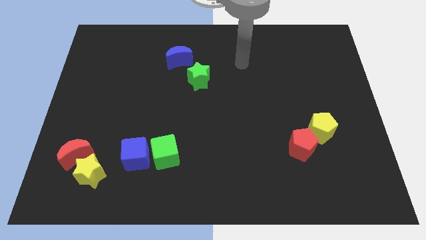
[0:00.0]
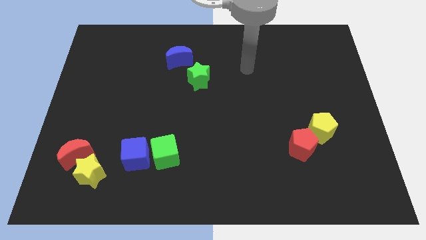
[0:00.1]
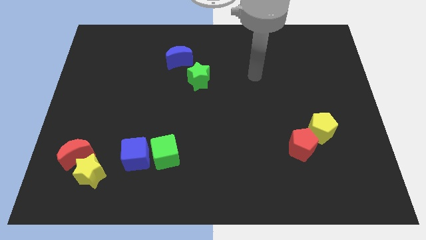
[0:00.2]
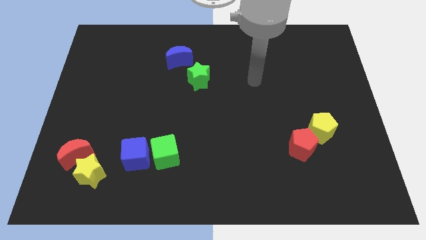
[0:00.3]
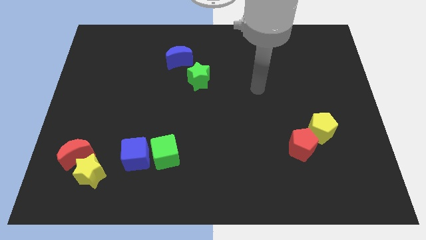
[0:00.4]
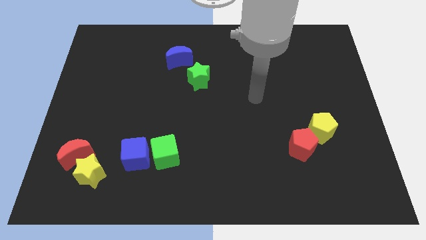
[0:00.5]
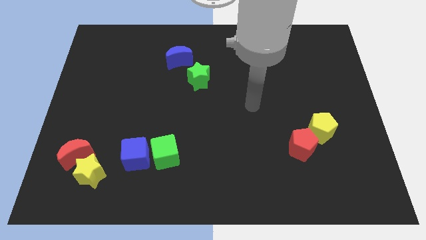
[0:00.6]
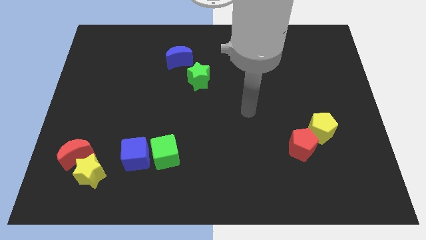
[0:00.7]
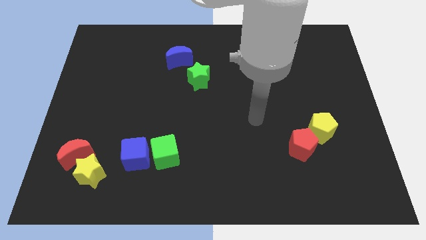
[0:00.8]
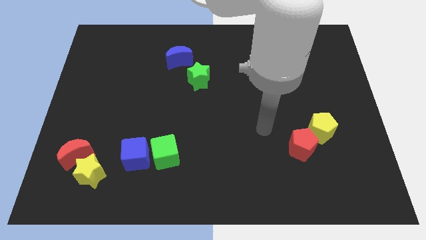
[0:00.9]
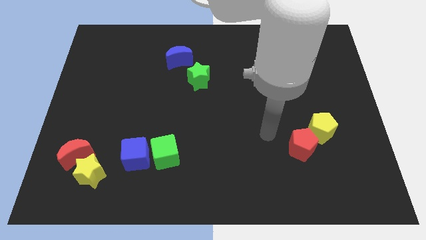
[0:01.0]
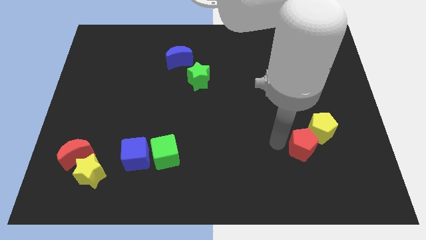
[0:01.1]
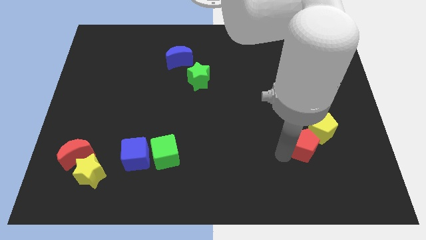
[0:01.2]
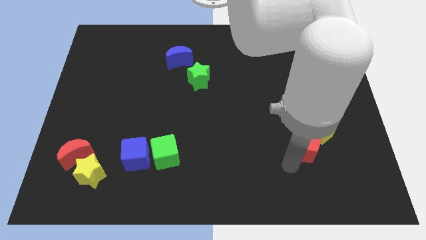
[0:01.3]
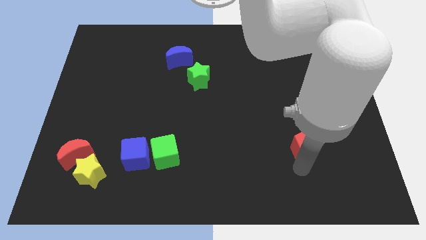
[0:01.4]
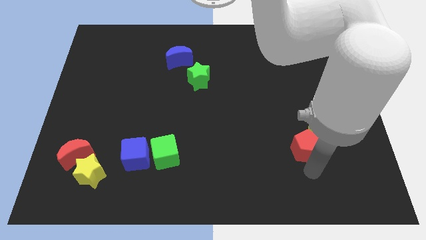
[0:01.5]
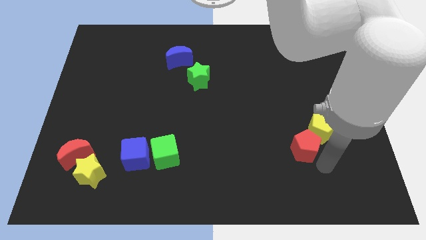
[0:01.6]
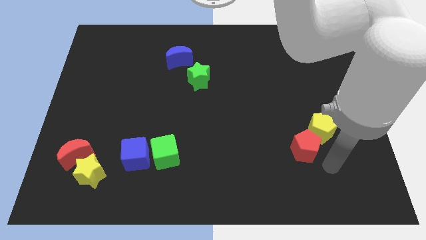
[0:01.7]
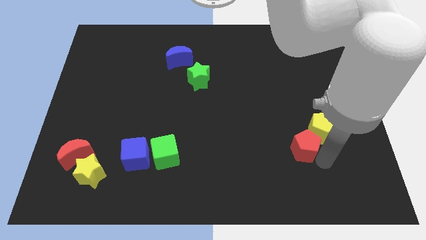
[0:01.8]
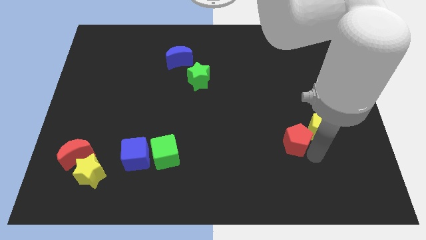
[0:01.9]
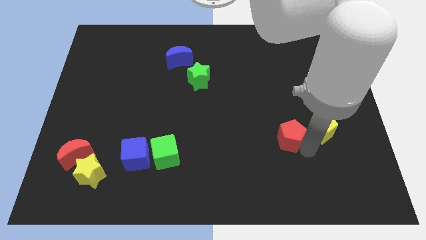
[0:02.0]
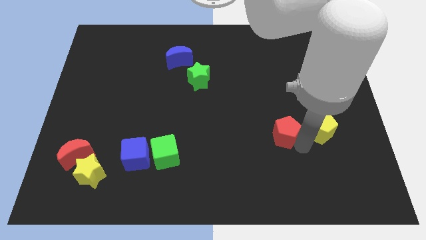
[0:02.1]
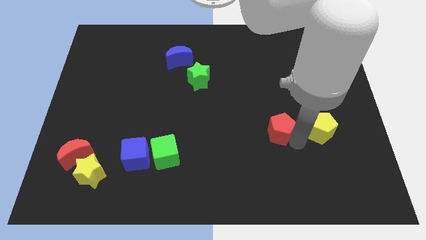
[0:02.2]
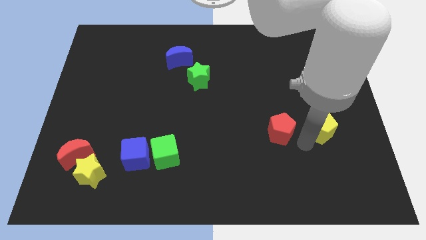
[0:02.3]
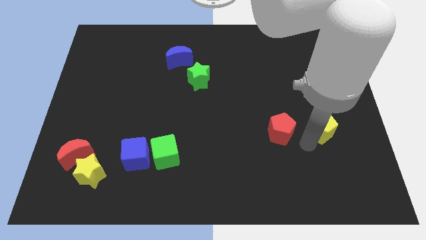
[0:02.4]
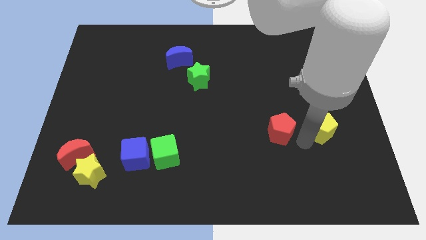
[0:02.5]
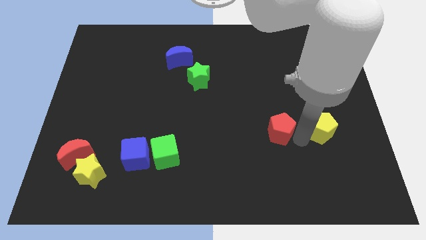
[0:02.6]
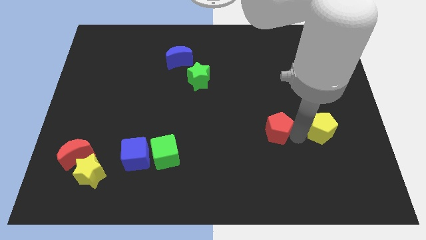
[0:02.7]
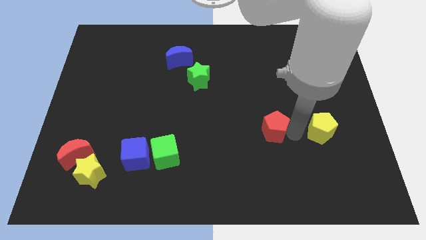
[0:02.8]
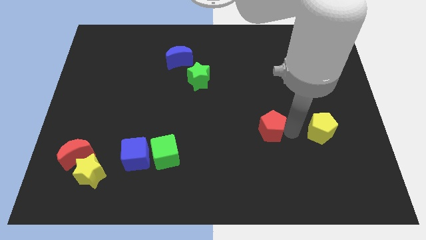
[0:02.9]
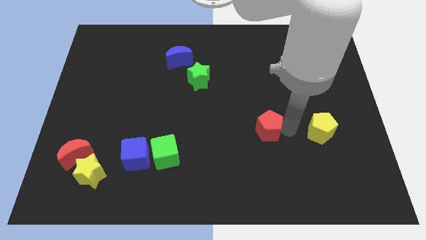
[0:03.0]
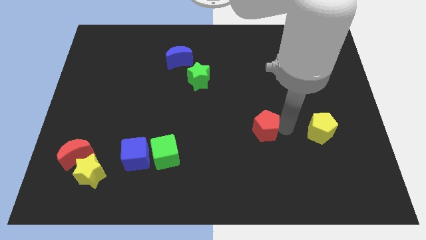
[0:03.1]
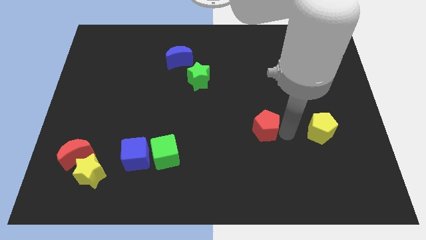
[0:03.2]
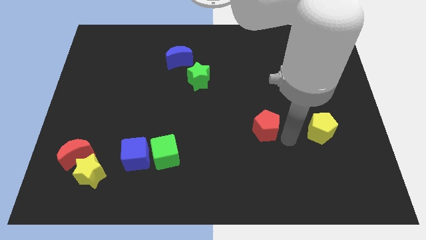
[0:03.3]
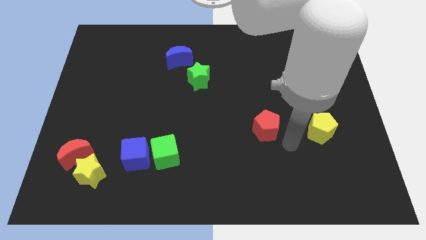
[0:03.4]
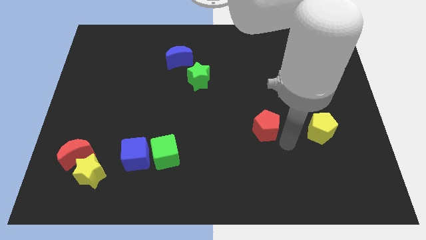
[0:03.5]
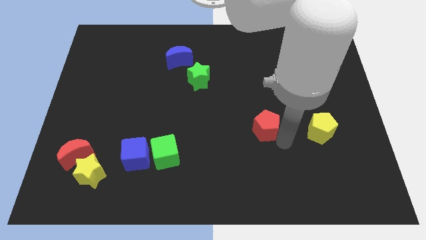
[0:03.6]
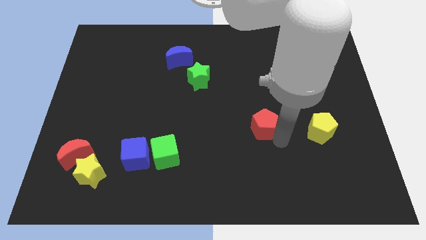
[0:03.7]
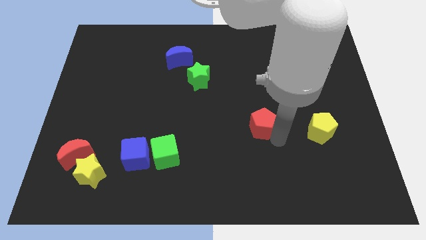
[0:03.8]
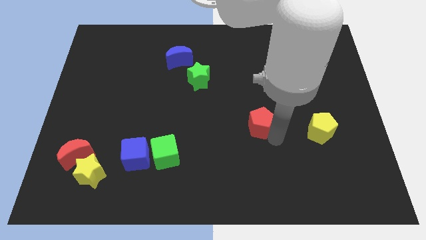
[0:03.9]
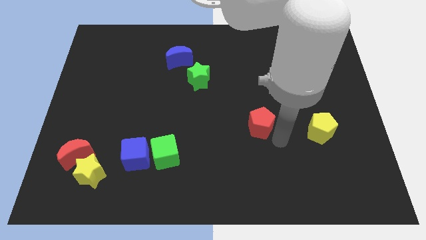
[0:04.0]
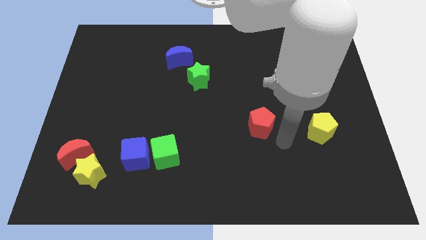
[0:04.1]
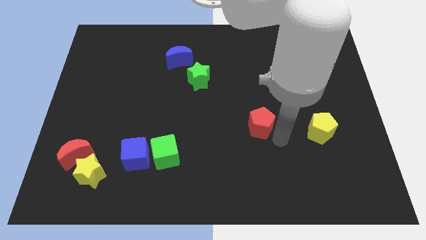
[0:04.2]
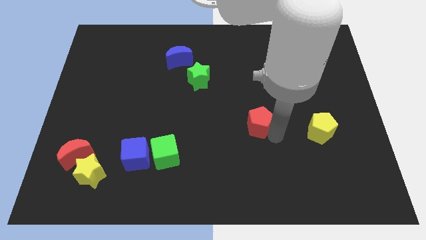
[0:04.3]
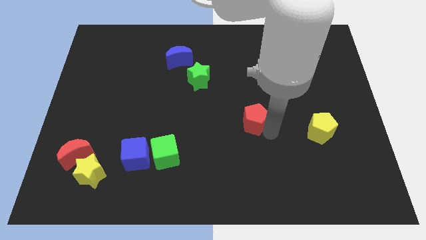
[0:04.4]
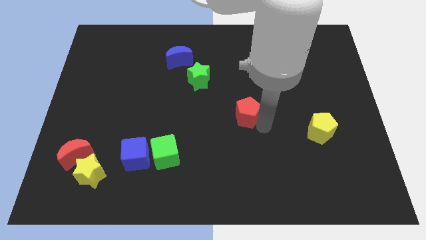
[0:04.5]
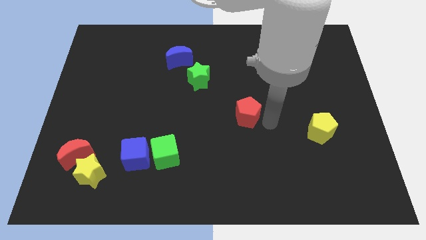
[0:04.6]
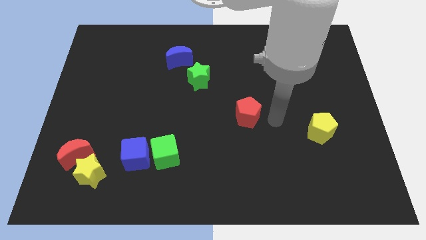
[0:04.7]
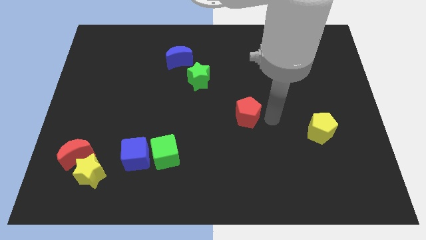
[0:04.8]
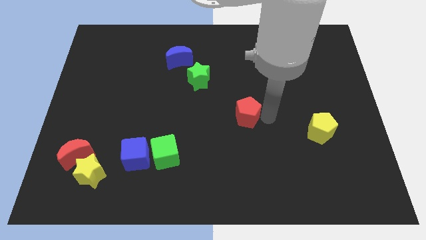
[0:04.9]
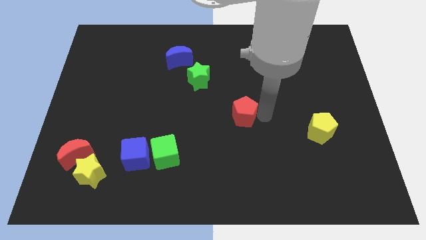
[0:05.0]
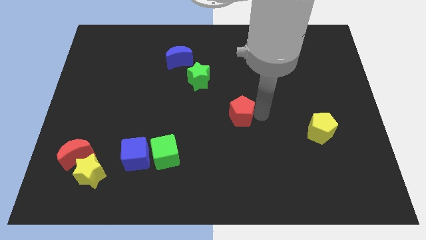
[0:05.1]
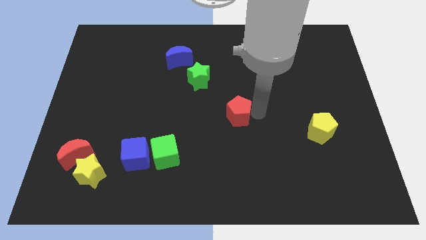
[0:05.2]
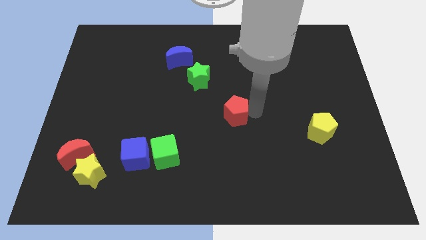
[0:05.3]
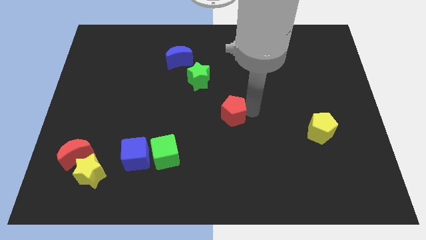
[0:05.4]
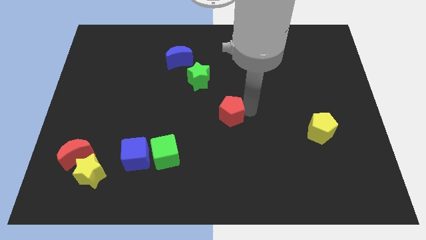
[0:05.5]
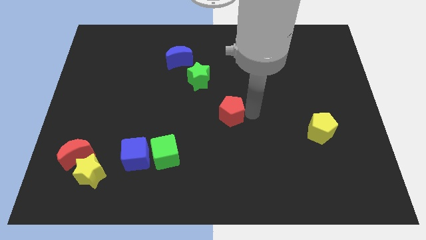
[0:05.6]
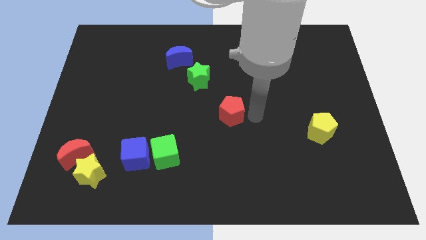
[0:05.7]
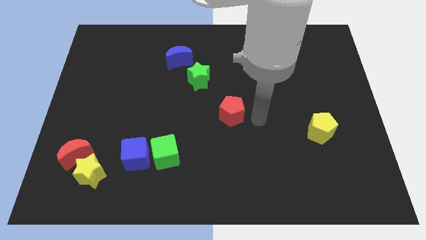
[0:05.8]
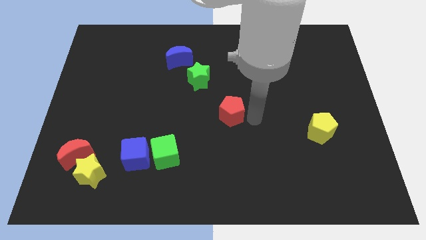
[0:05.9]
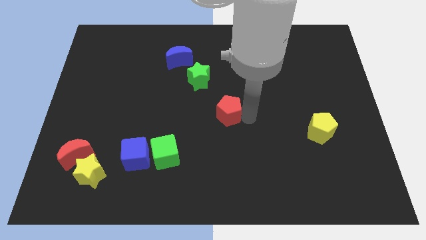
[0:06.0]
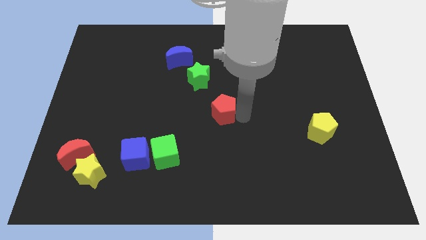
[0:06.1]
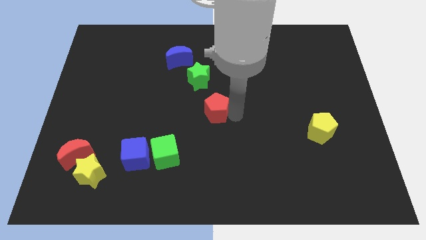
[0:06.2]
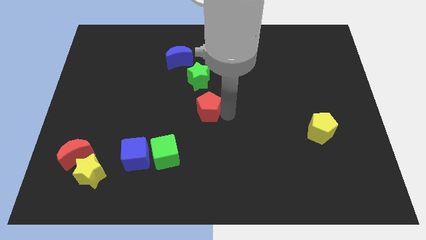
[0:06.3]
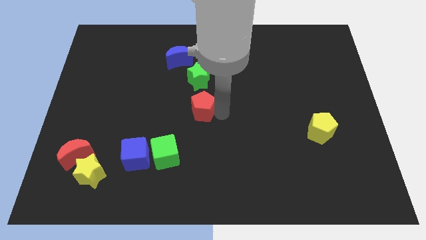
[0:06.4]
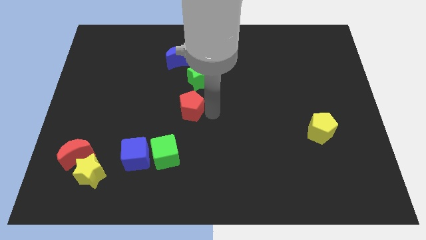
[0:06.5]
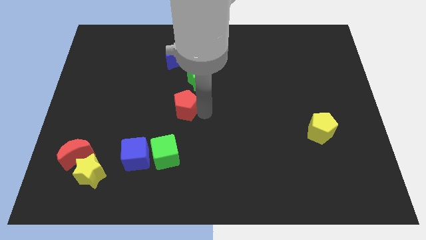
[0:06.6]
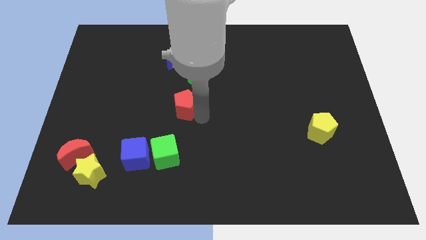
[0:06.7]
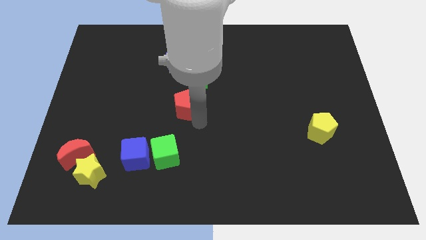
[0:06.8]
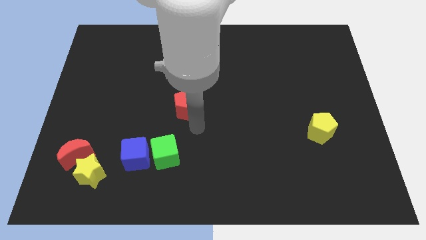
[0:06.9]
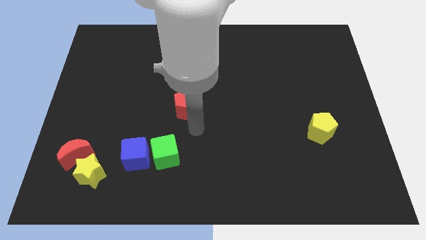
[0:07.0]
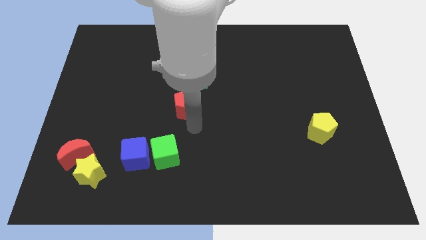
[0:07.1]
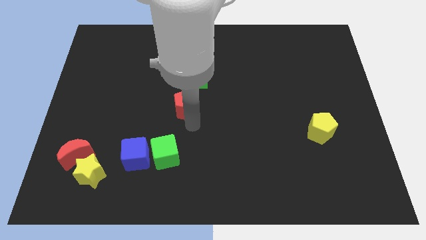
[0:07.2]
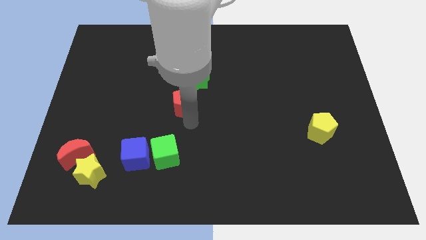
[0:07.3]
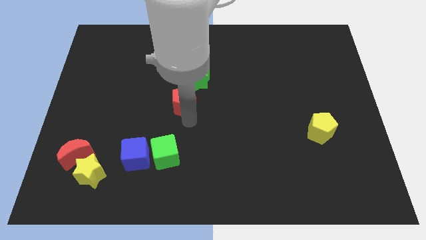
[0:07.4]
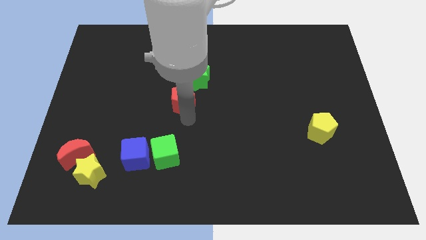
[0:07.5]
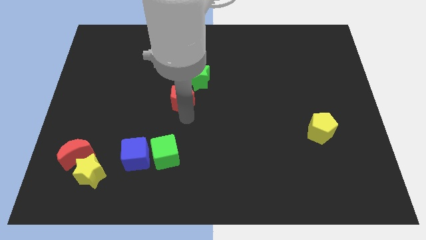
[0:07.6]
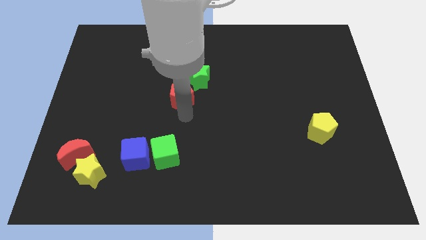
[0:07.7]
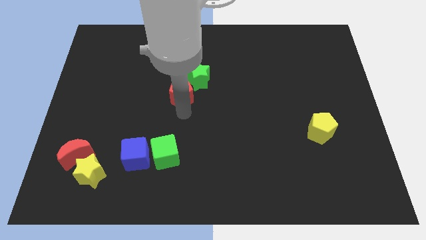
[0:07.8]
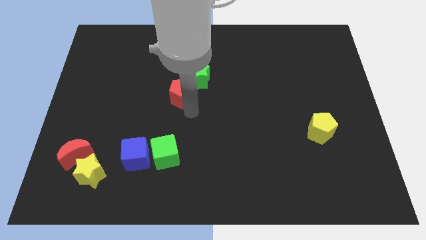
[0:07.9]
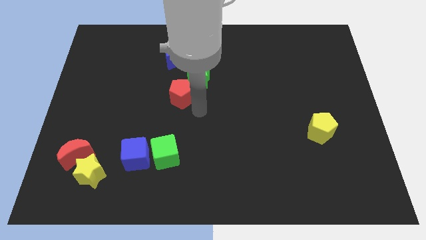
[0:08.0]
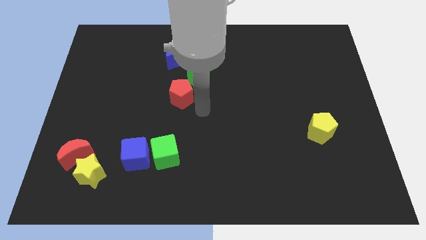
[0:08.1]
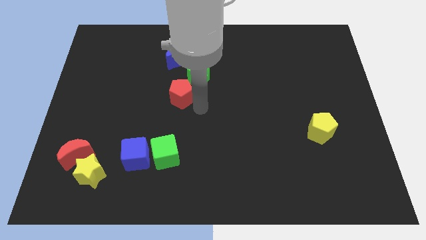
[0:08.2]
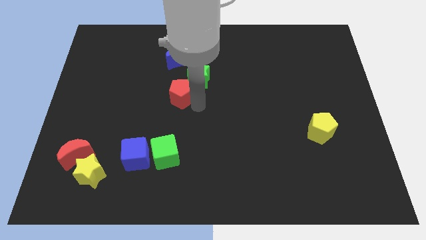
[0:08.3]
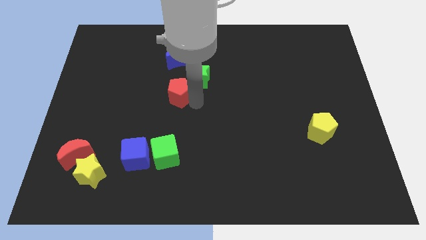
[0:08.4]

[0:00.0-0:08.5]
put the red pentagon to the left side of the green star
